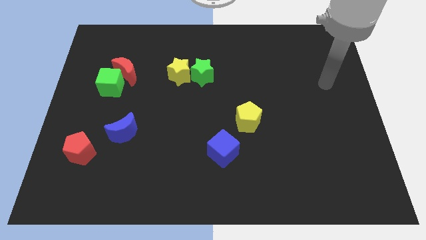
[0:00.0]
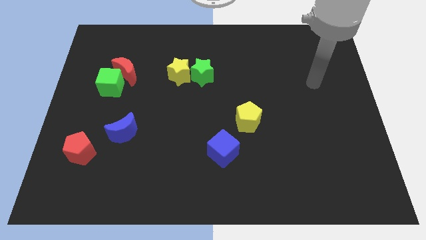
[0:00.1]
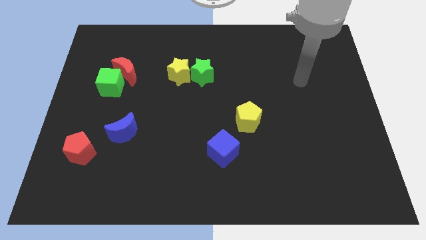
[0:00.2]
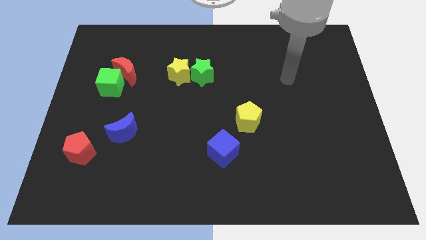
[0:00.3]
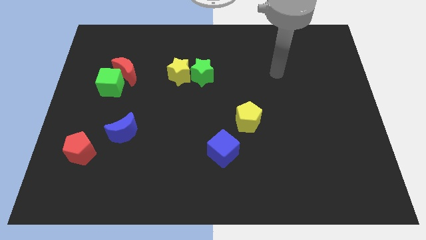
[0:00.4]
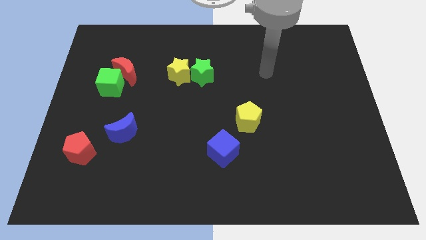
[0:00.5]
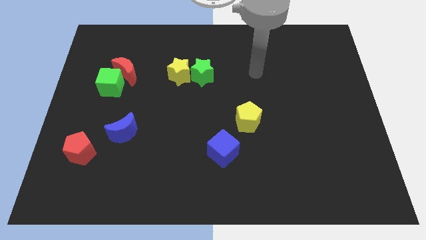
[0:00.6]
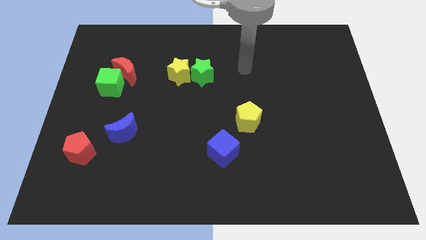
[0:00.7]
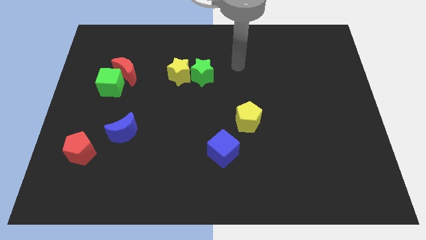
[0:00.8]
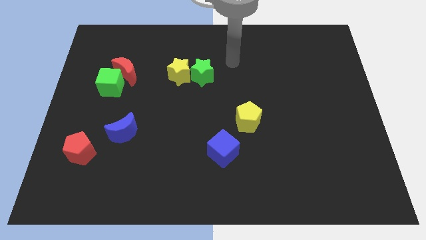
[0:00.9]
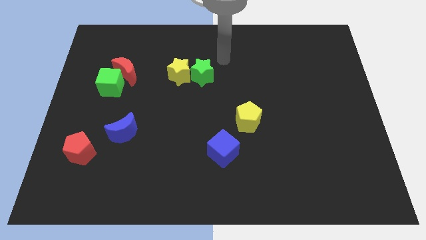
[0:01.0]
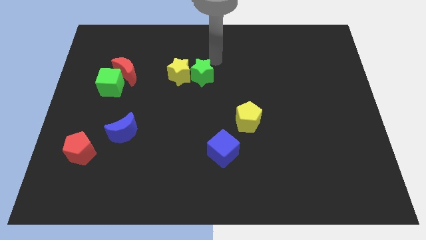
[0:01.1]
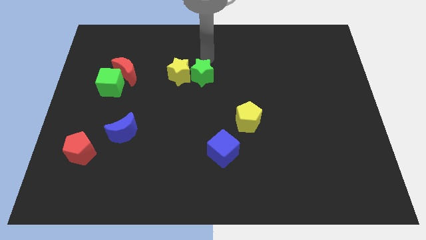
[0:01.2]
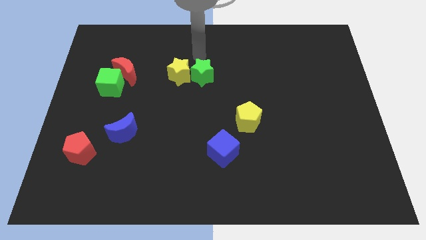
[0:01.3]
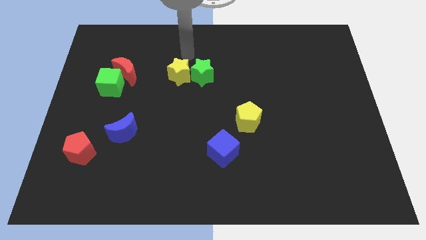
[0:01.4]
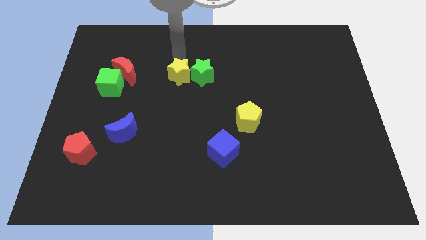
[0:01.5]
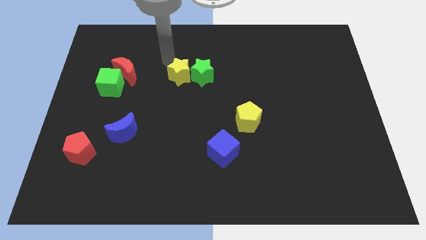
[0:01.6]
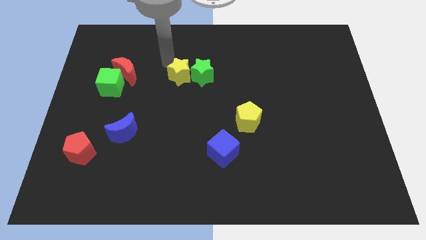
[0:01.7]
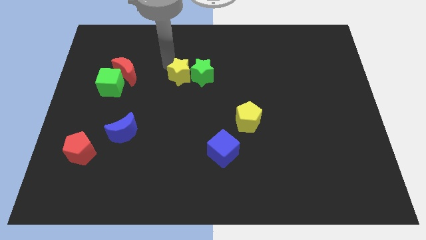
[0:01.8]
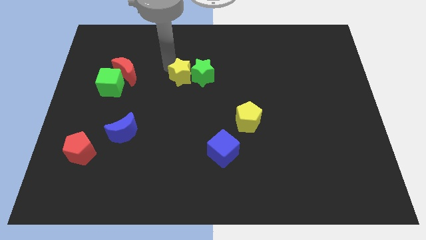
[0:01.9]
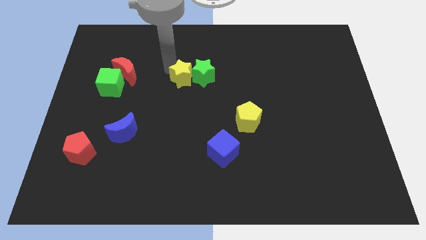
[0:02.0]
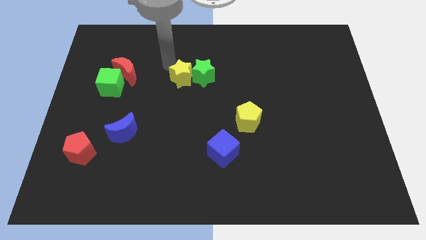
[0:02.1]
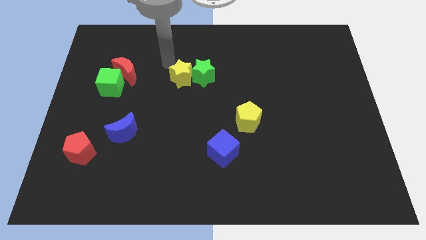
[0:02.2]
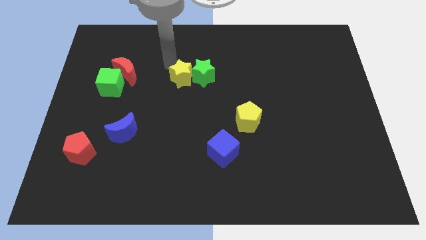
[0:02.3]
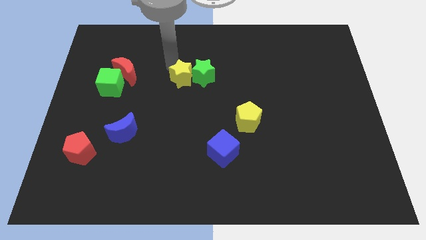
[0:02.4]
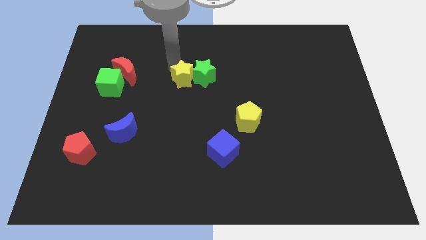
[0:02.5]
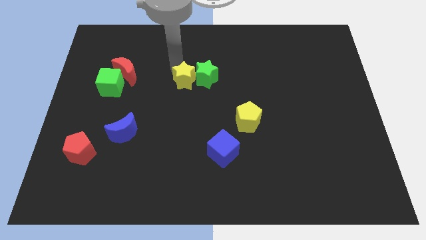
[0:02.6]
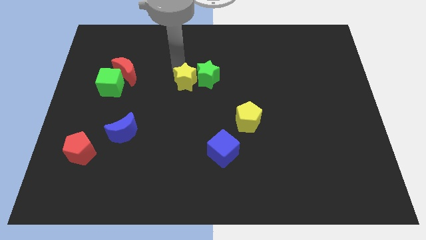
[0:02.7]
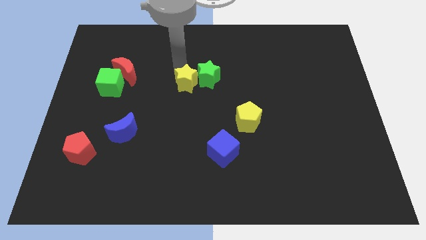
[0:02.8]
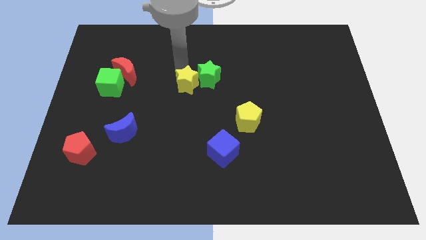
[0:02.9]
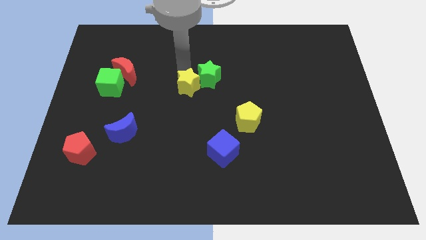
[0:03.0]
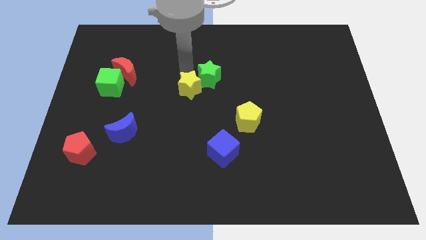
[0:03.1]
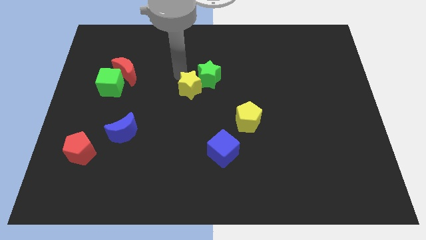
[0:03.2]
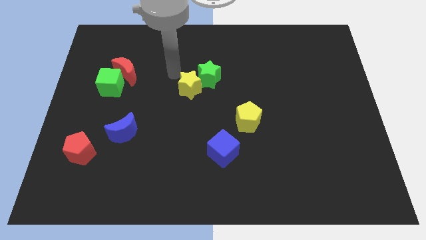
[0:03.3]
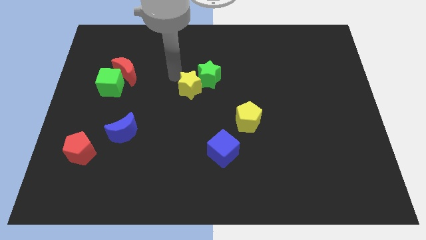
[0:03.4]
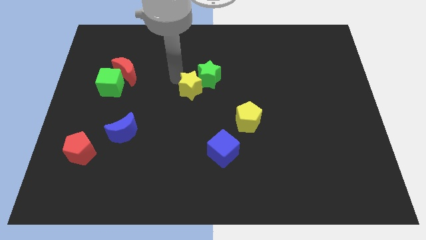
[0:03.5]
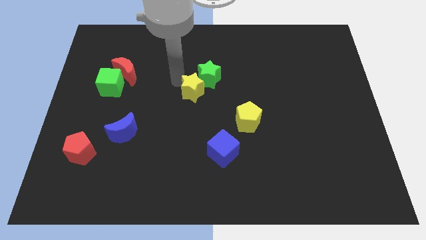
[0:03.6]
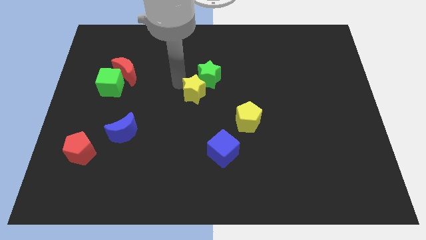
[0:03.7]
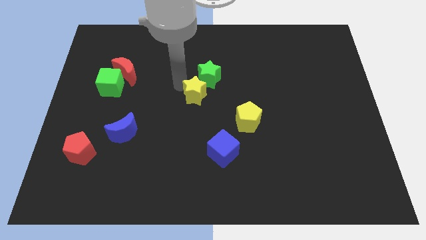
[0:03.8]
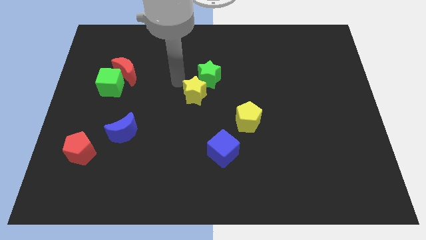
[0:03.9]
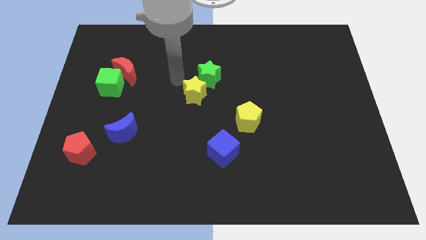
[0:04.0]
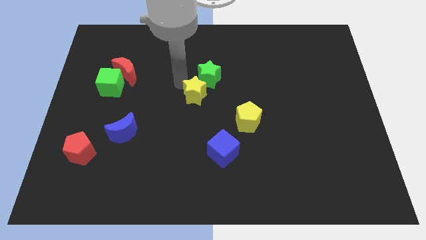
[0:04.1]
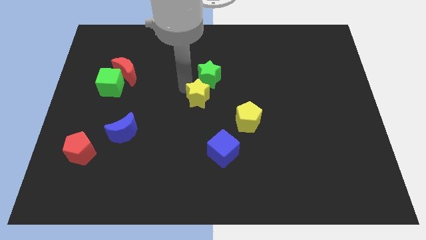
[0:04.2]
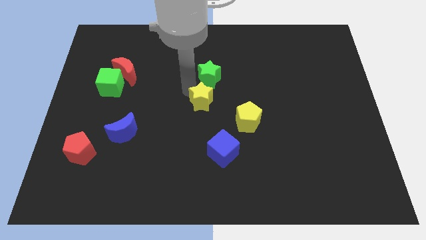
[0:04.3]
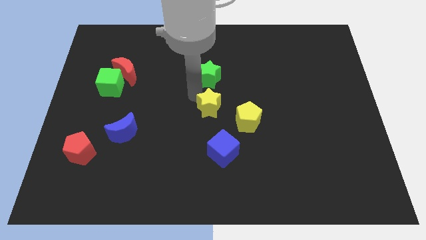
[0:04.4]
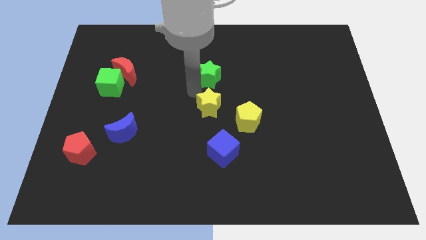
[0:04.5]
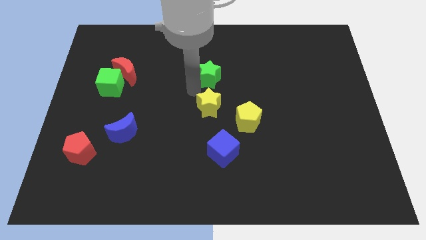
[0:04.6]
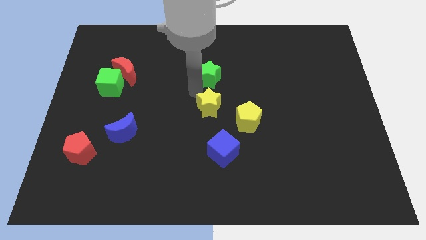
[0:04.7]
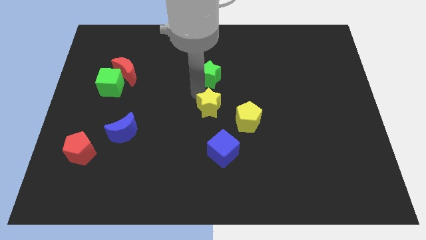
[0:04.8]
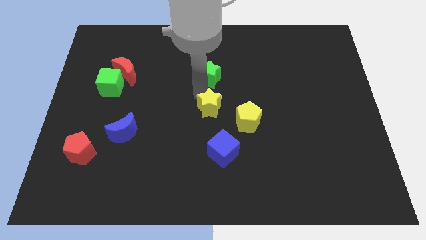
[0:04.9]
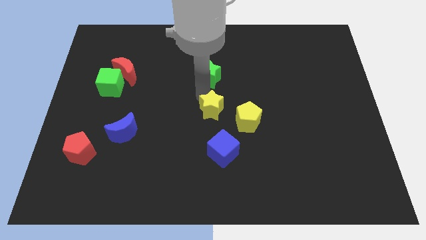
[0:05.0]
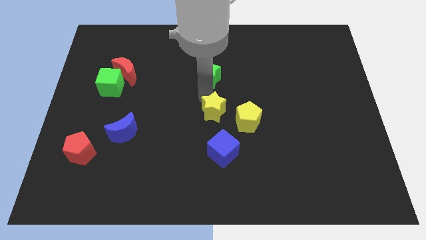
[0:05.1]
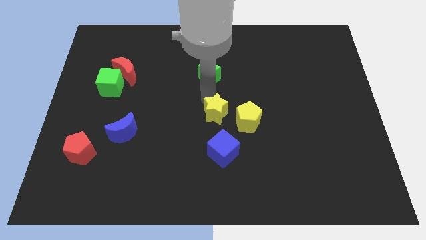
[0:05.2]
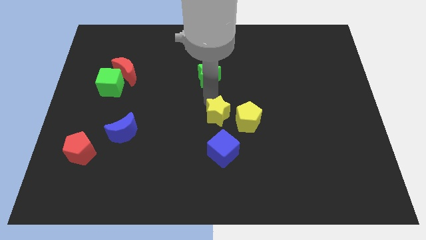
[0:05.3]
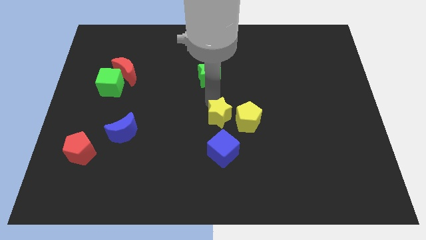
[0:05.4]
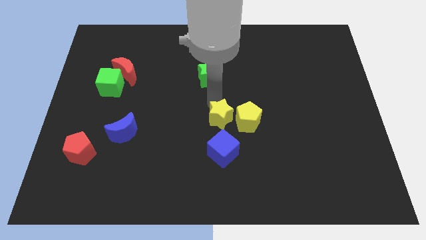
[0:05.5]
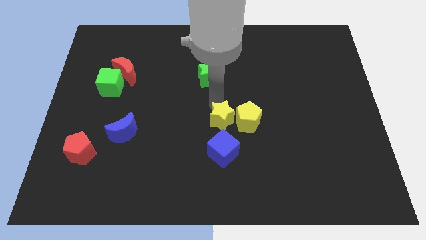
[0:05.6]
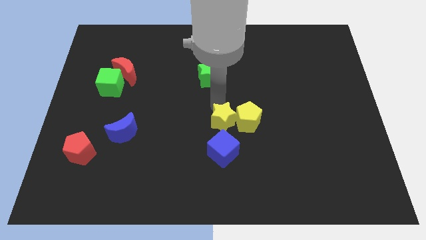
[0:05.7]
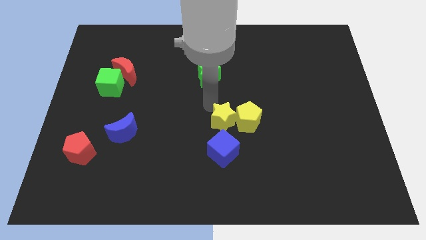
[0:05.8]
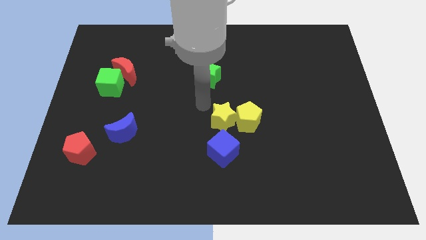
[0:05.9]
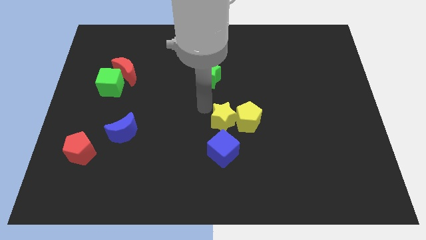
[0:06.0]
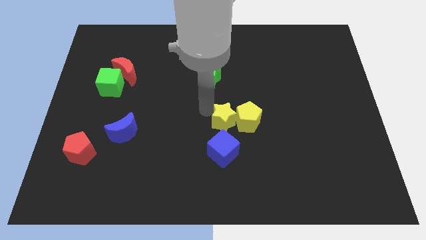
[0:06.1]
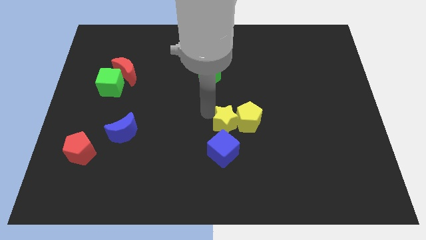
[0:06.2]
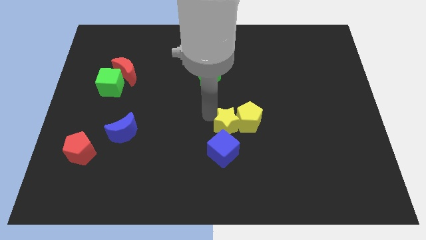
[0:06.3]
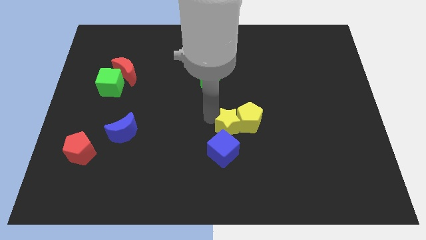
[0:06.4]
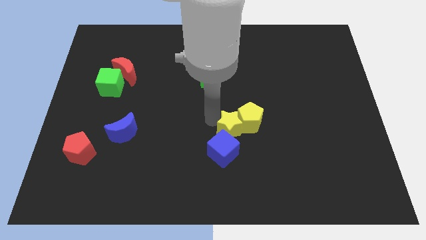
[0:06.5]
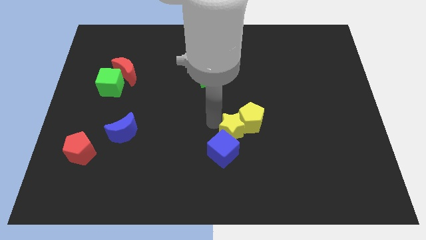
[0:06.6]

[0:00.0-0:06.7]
slide the yellow star downwards and to the right diagonally

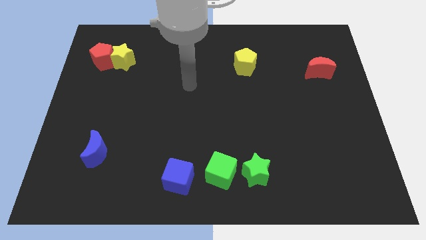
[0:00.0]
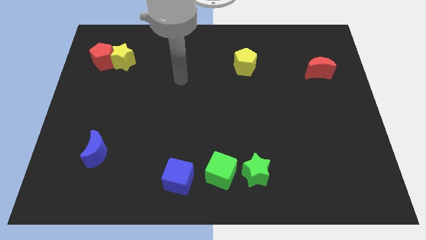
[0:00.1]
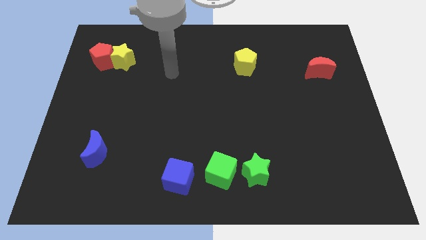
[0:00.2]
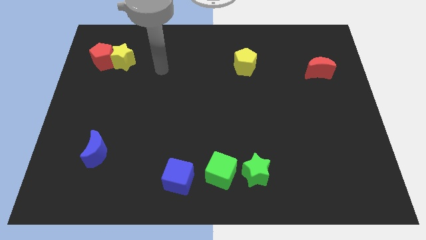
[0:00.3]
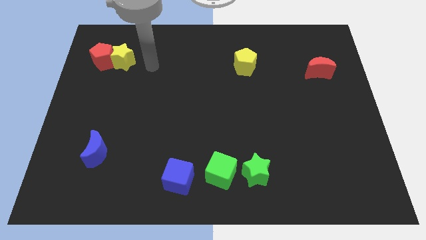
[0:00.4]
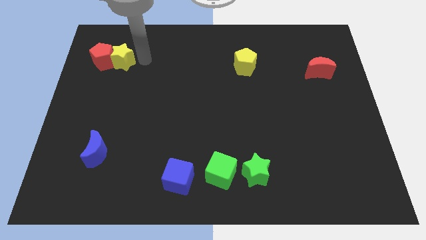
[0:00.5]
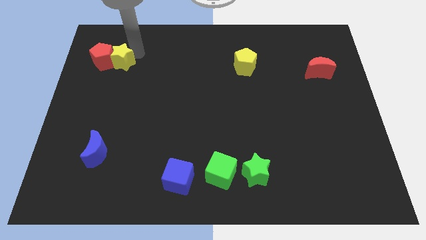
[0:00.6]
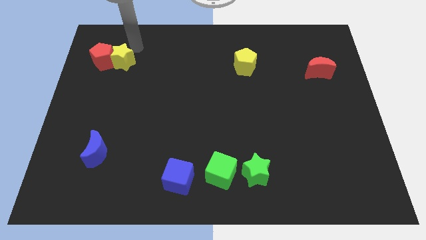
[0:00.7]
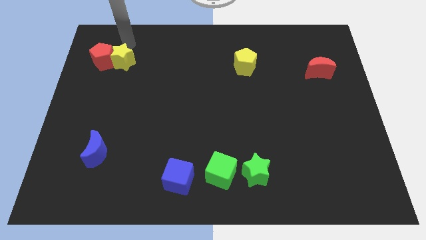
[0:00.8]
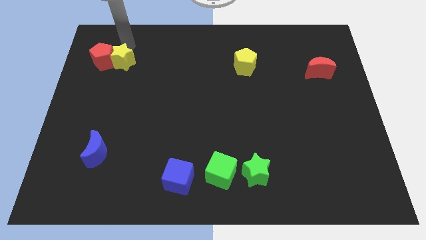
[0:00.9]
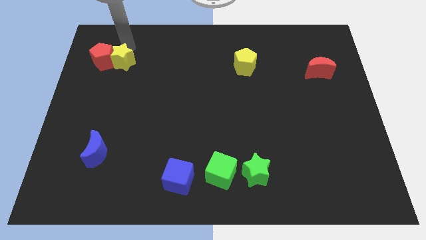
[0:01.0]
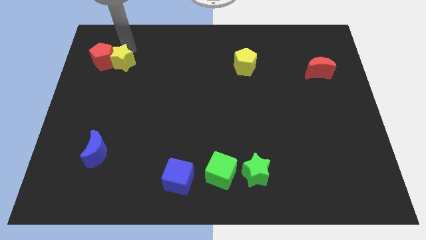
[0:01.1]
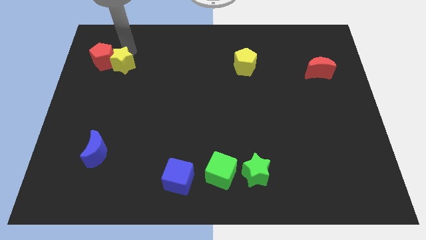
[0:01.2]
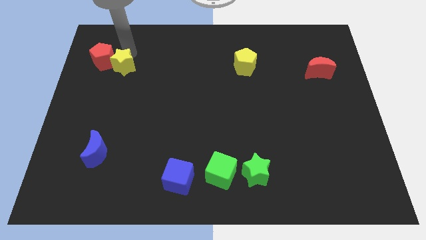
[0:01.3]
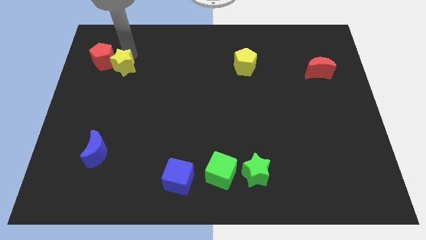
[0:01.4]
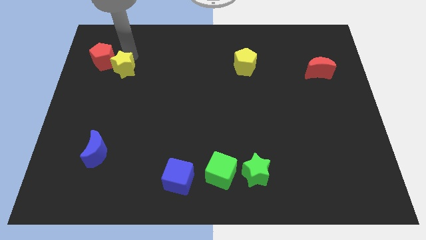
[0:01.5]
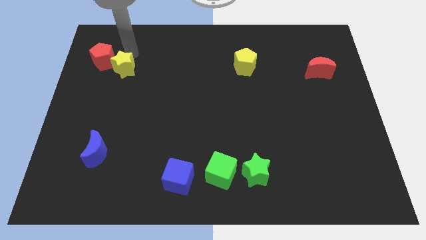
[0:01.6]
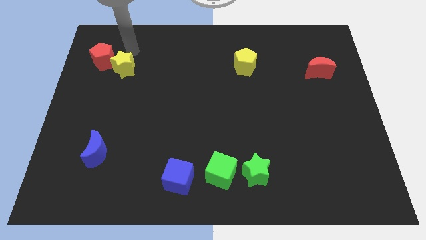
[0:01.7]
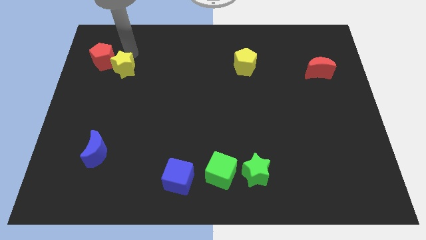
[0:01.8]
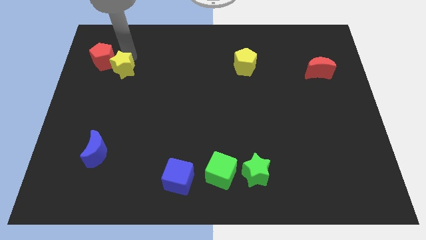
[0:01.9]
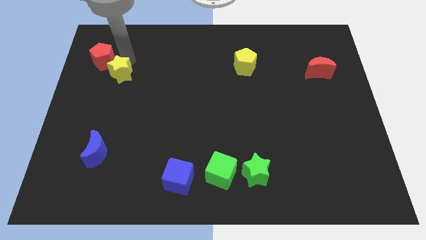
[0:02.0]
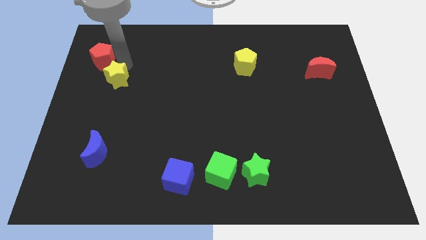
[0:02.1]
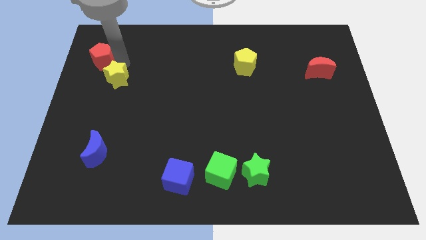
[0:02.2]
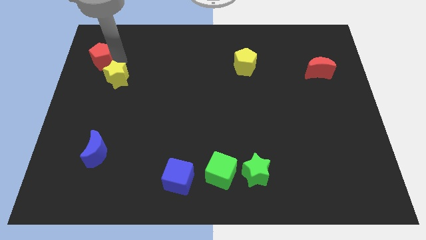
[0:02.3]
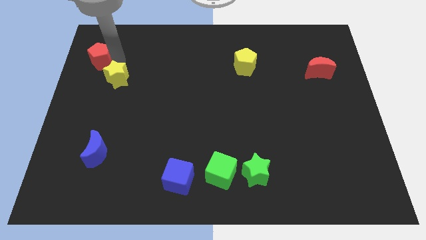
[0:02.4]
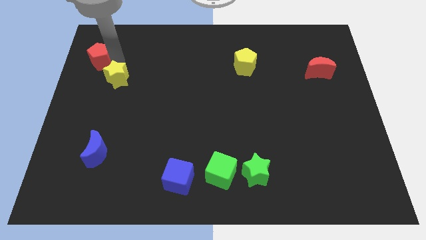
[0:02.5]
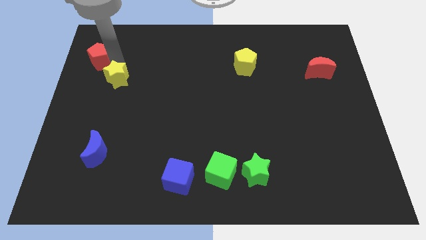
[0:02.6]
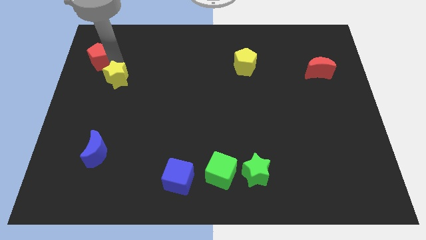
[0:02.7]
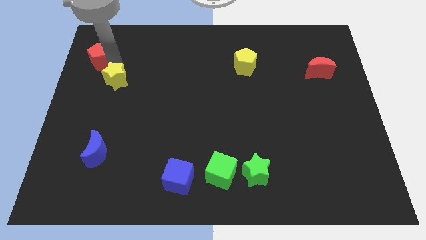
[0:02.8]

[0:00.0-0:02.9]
push the yellow star a bit downwards
